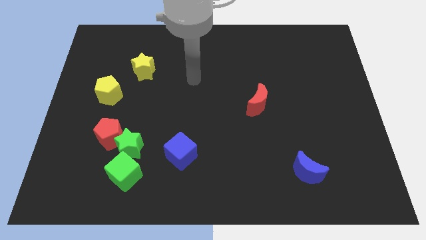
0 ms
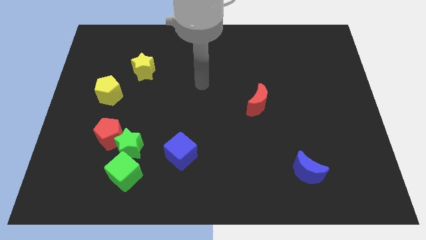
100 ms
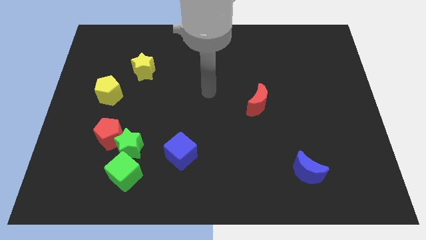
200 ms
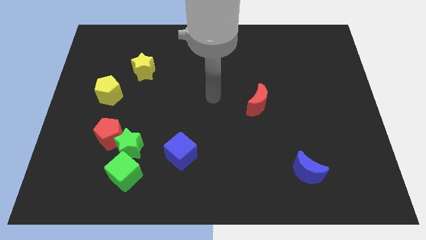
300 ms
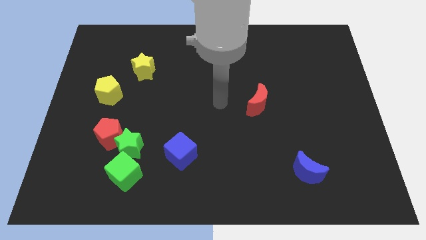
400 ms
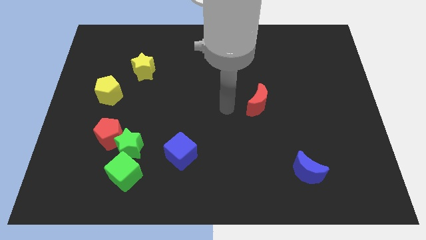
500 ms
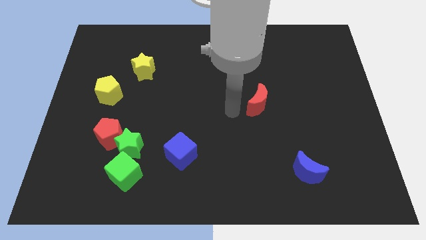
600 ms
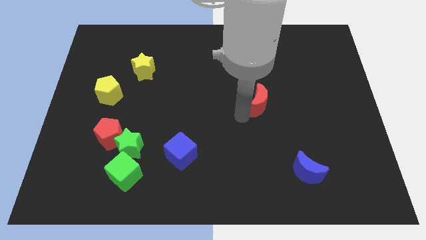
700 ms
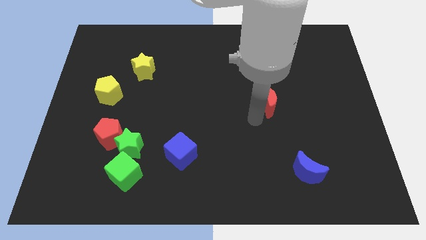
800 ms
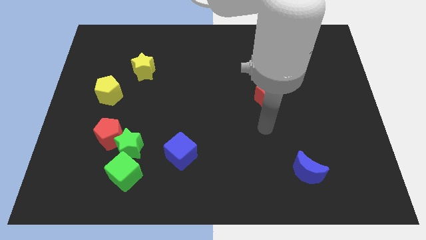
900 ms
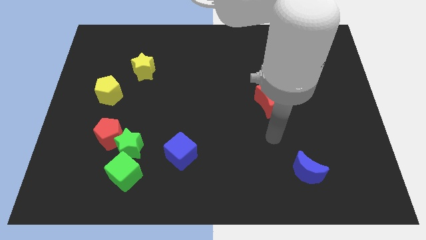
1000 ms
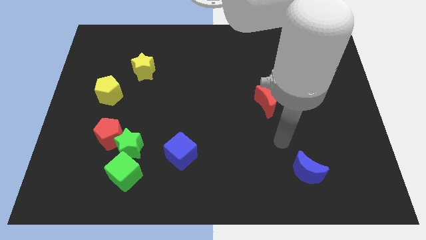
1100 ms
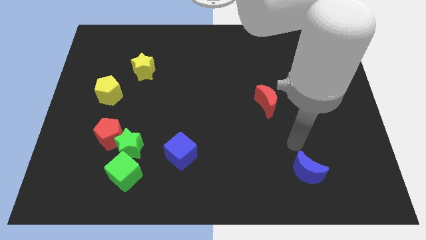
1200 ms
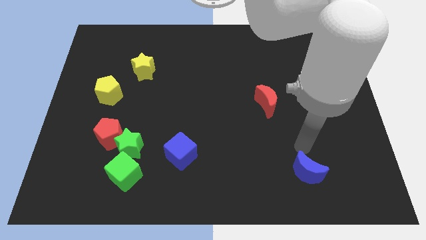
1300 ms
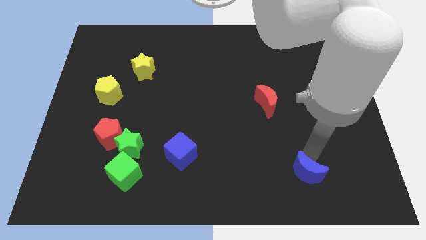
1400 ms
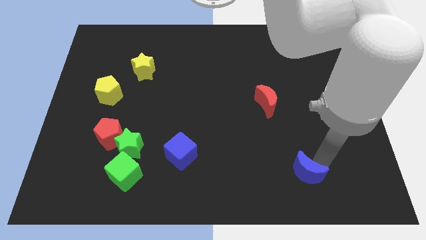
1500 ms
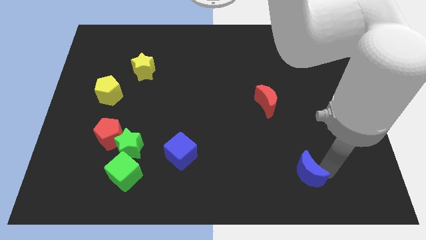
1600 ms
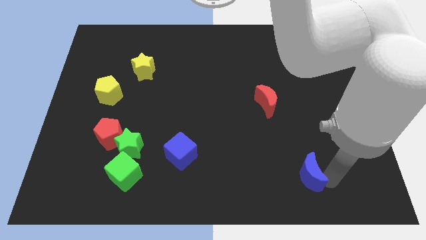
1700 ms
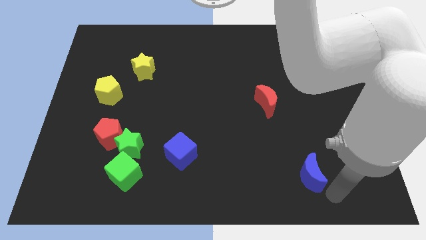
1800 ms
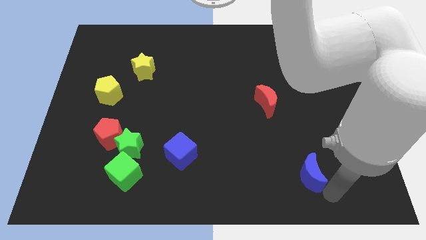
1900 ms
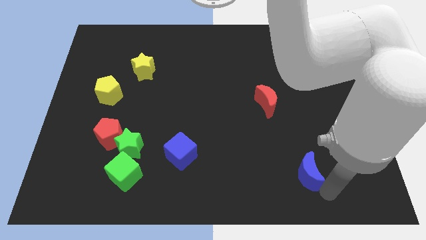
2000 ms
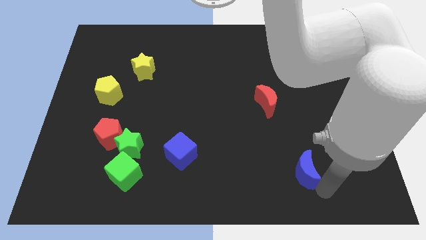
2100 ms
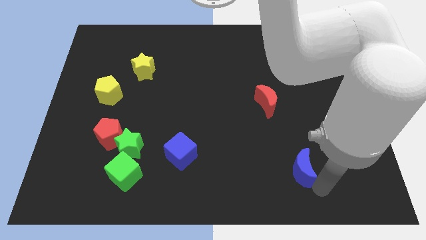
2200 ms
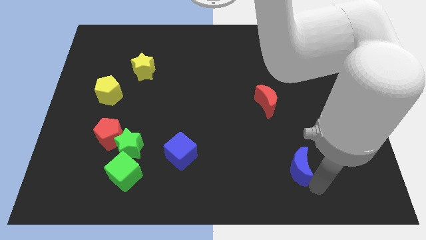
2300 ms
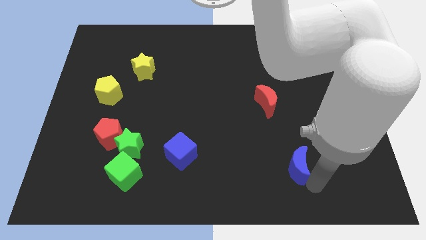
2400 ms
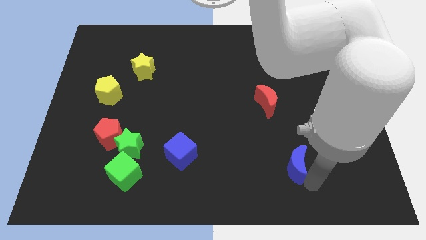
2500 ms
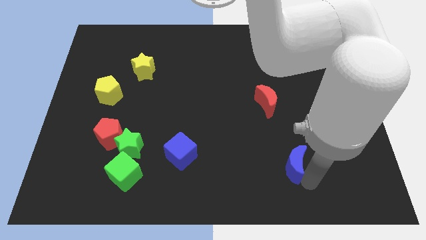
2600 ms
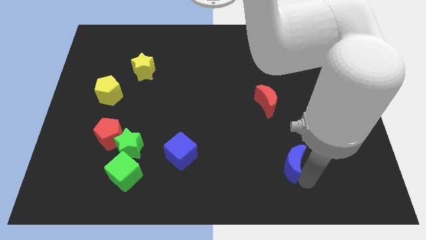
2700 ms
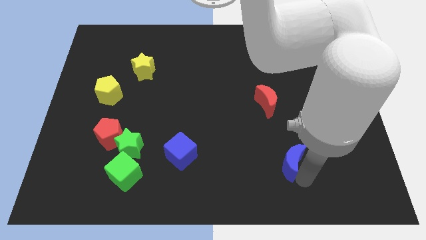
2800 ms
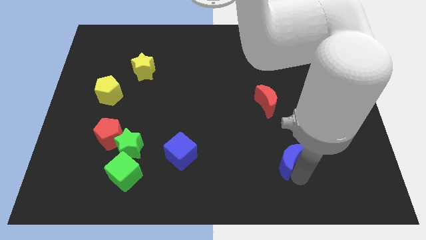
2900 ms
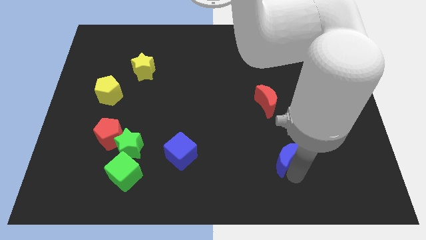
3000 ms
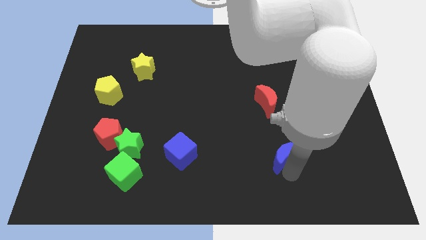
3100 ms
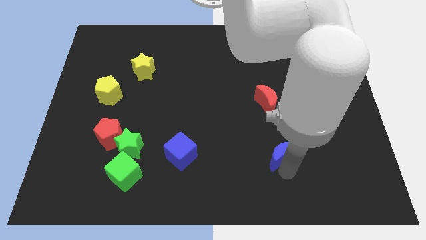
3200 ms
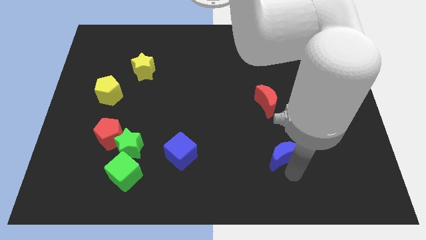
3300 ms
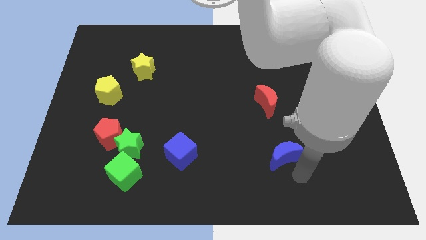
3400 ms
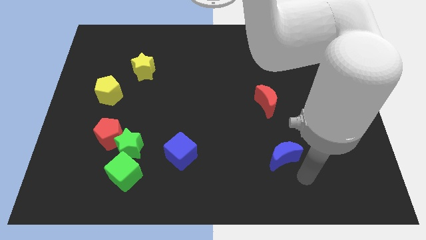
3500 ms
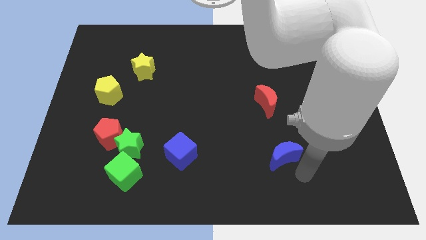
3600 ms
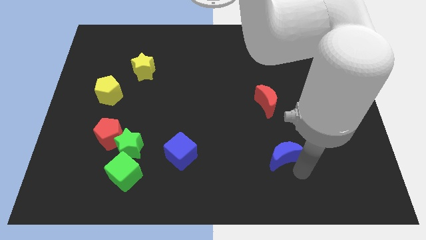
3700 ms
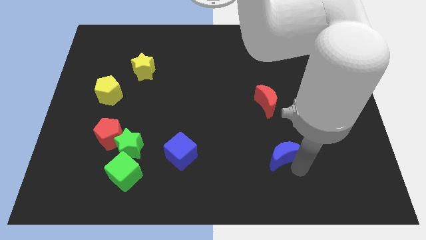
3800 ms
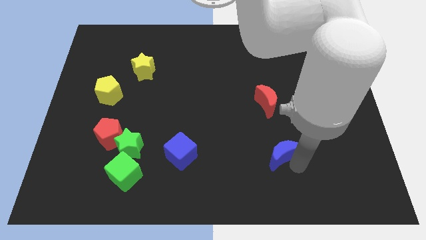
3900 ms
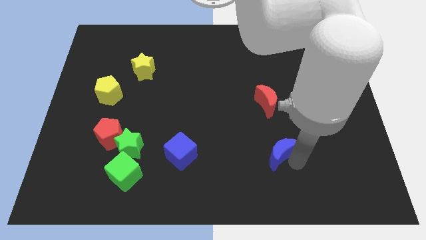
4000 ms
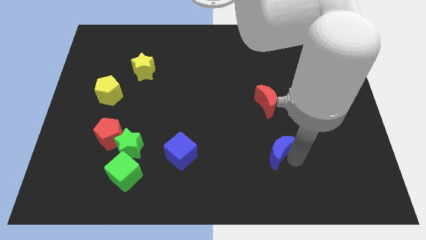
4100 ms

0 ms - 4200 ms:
slightly move the blue moon upwards and then left

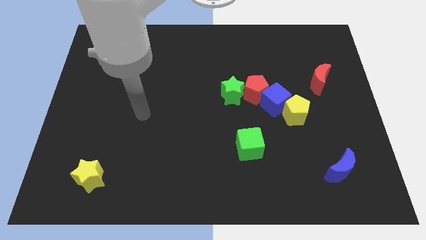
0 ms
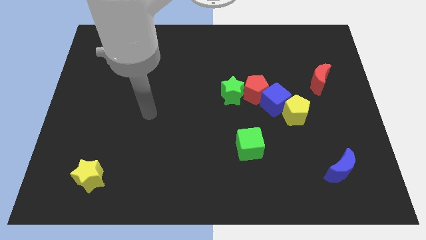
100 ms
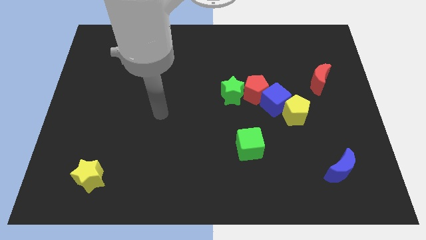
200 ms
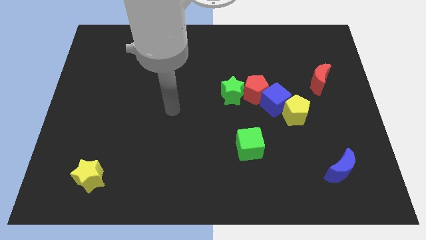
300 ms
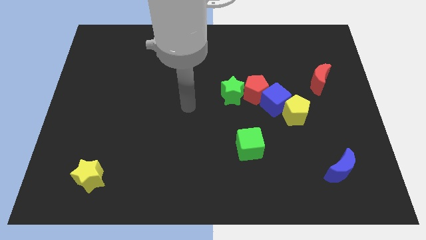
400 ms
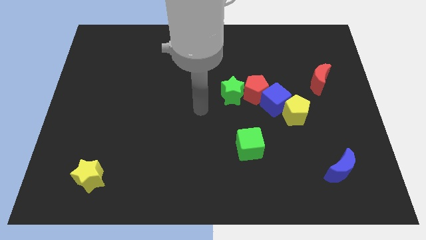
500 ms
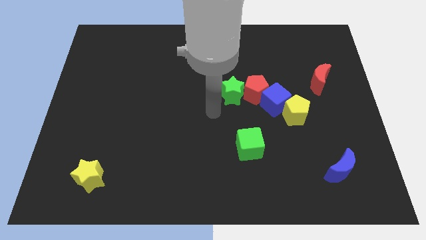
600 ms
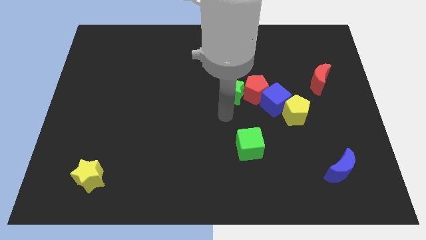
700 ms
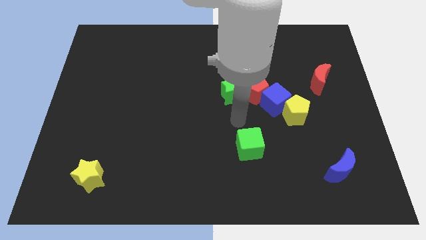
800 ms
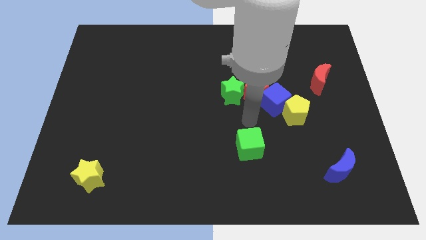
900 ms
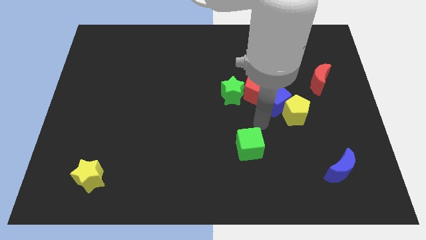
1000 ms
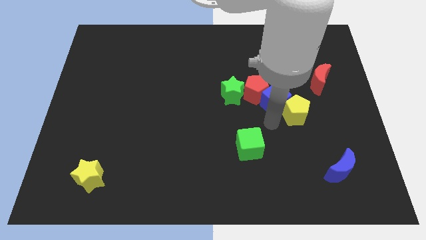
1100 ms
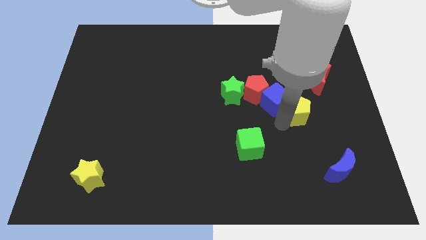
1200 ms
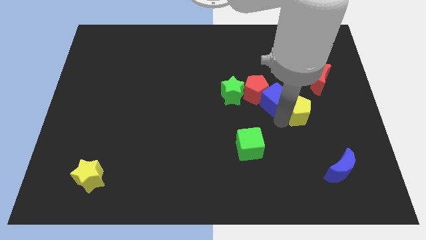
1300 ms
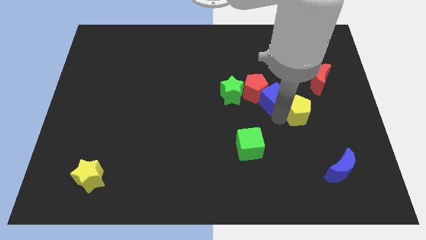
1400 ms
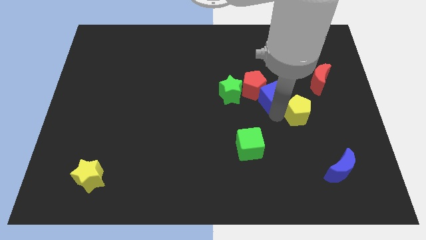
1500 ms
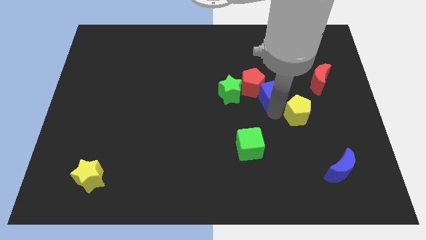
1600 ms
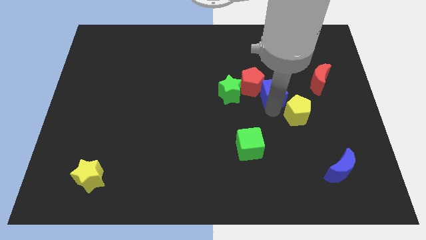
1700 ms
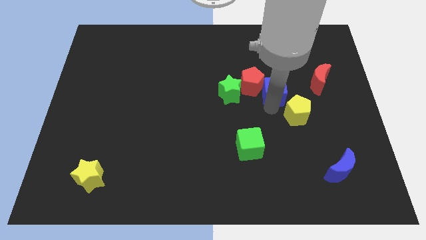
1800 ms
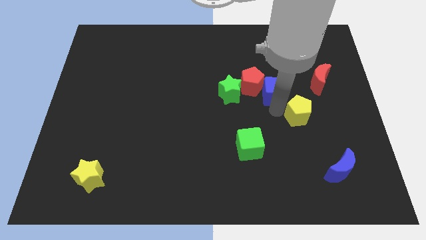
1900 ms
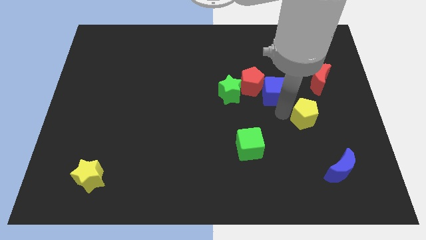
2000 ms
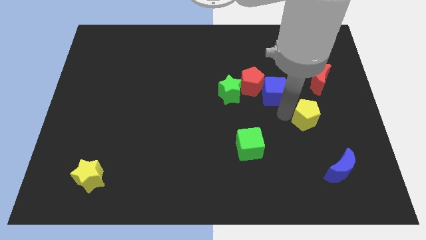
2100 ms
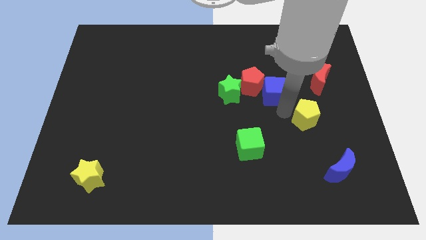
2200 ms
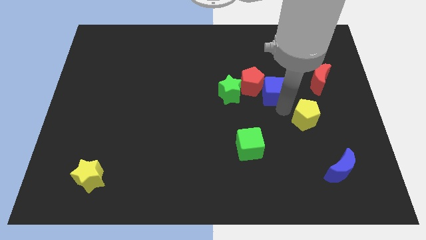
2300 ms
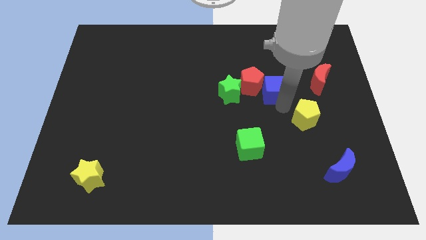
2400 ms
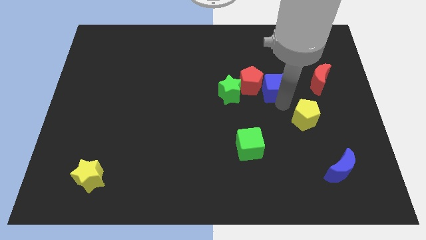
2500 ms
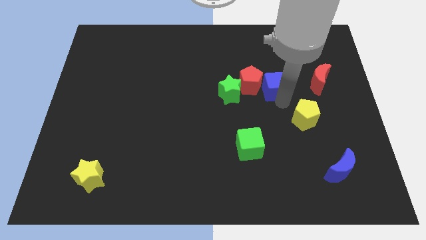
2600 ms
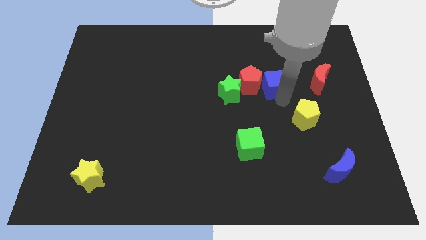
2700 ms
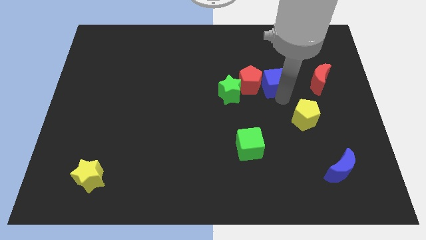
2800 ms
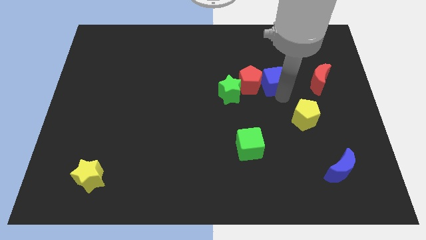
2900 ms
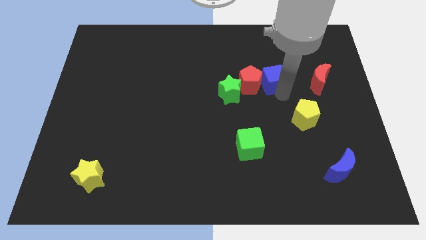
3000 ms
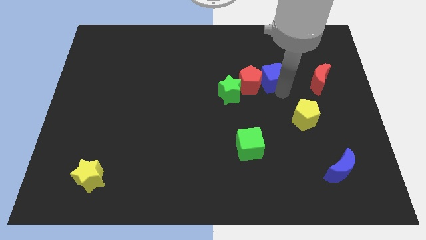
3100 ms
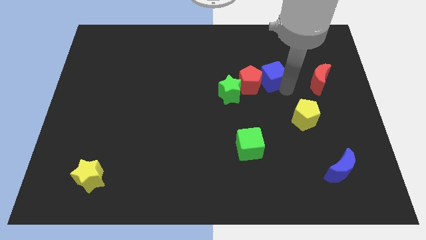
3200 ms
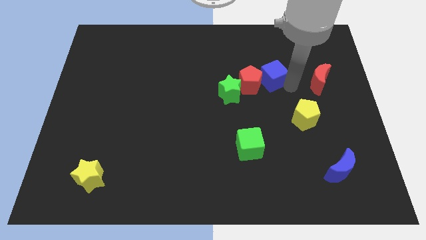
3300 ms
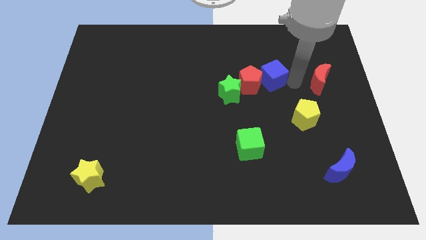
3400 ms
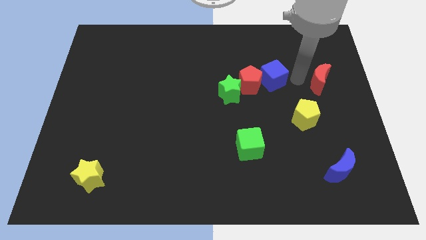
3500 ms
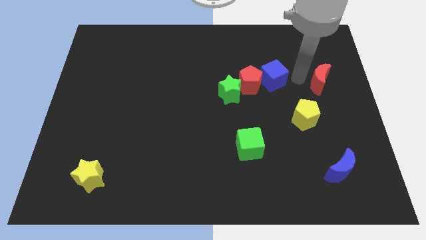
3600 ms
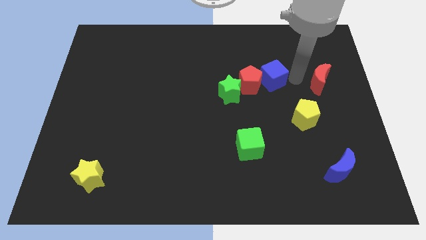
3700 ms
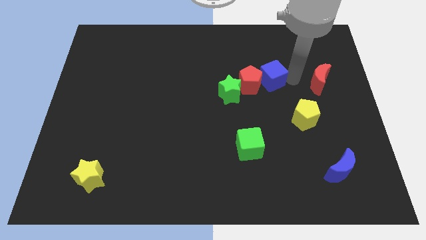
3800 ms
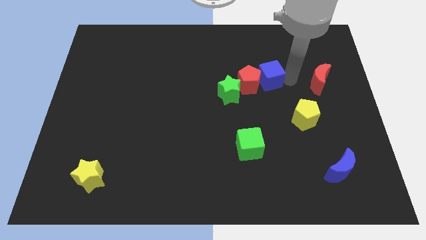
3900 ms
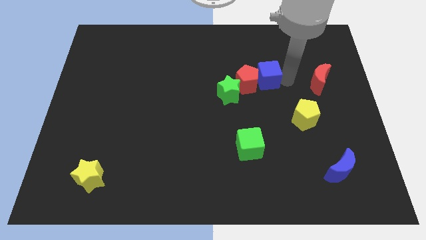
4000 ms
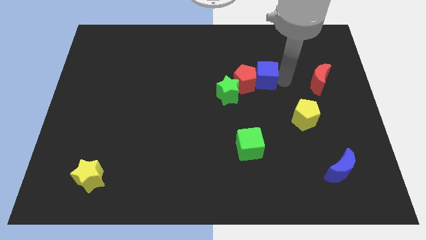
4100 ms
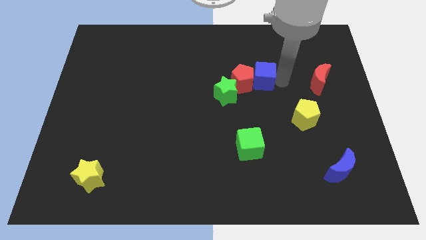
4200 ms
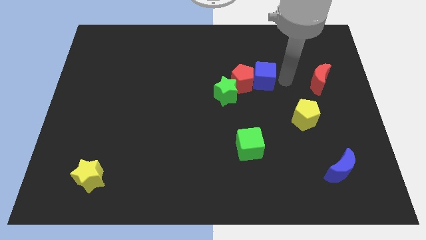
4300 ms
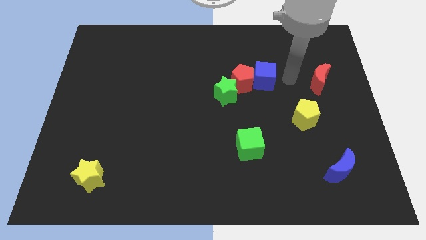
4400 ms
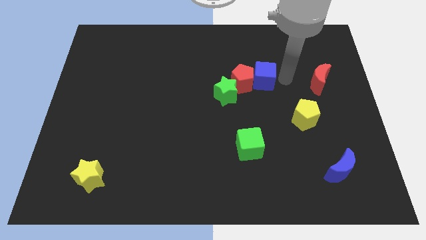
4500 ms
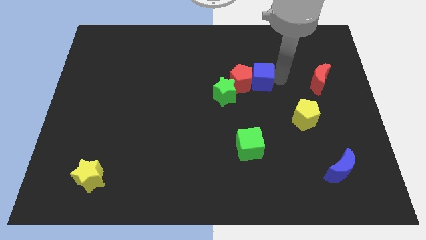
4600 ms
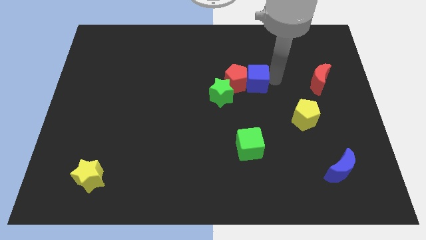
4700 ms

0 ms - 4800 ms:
push the blue cube diagonally upwards and left a bit
